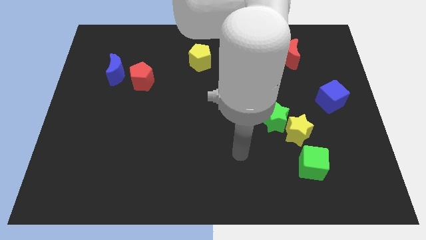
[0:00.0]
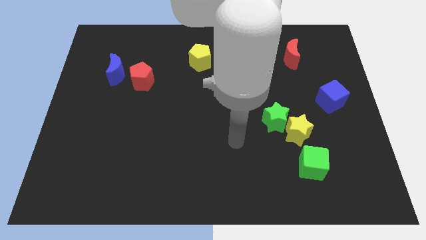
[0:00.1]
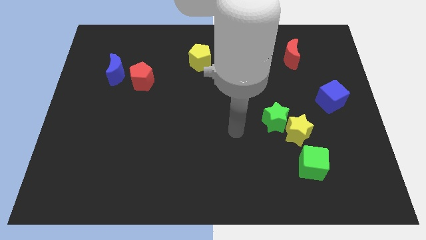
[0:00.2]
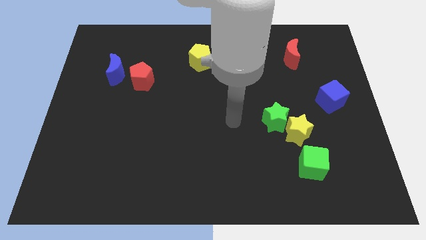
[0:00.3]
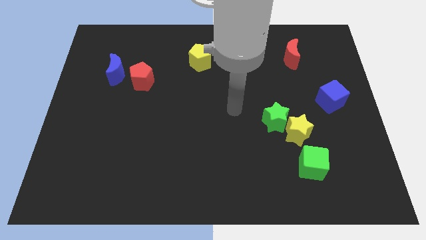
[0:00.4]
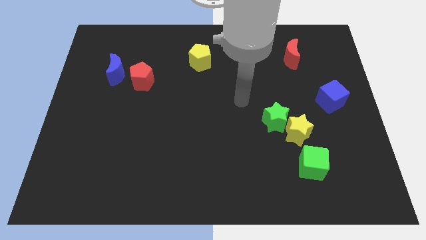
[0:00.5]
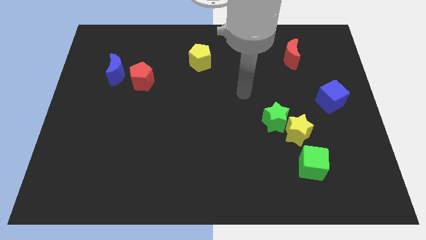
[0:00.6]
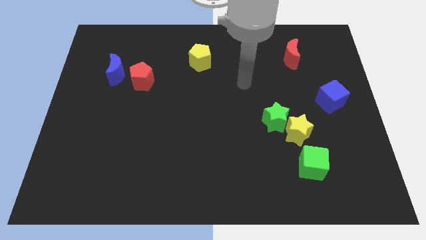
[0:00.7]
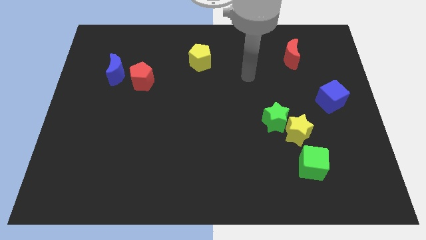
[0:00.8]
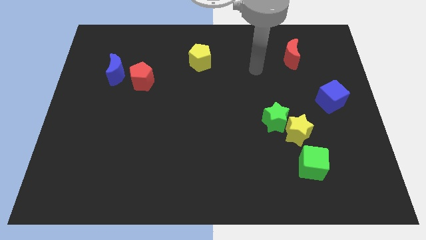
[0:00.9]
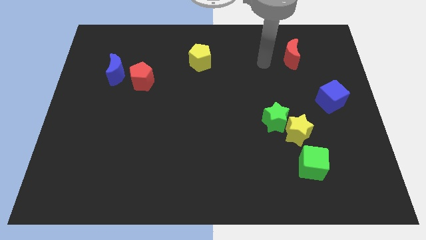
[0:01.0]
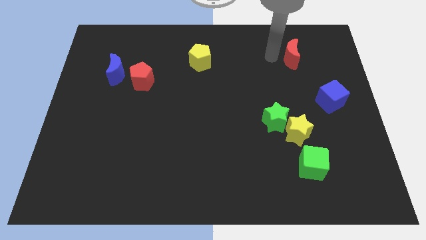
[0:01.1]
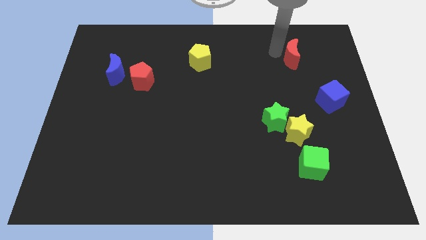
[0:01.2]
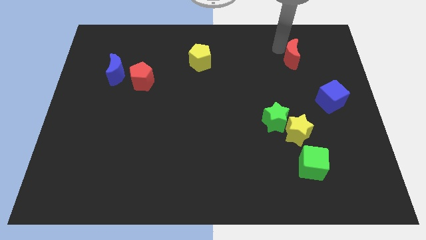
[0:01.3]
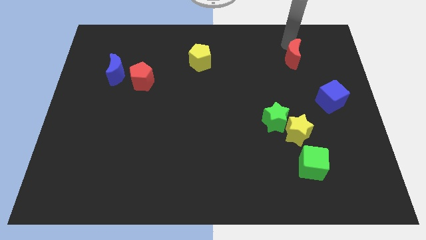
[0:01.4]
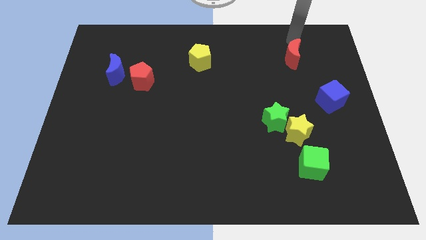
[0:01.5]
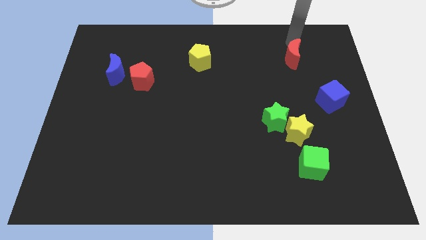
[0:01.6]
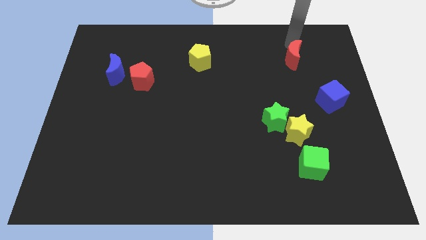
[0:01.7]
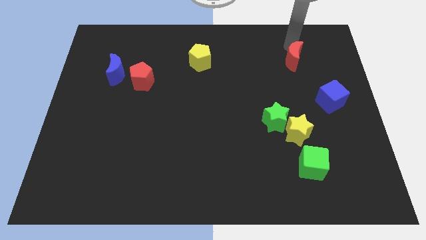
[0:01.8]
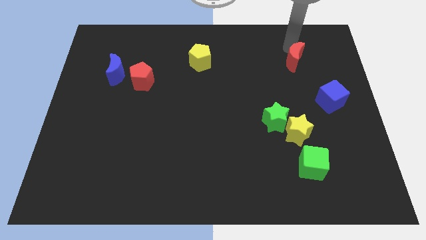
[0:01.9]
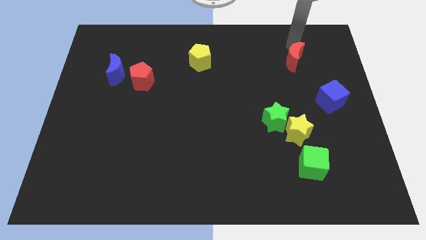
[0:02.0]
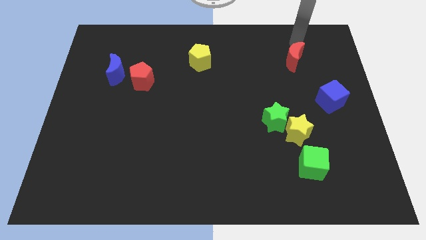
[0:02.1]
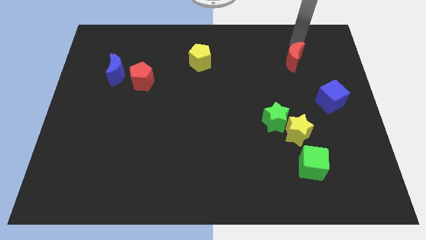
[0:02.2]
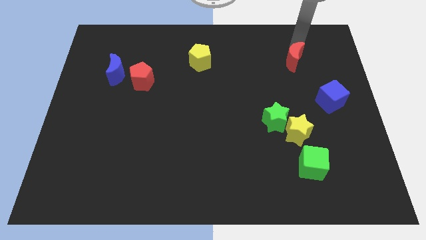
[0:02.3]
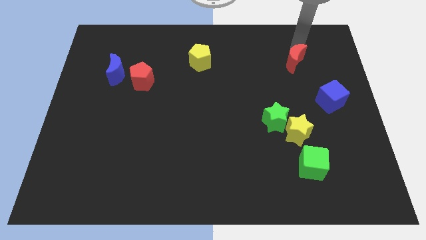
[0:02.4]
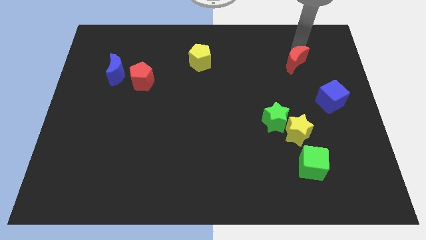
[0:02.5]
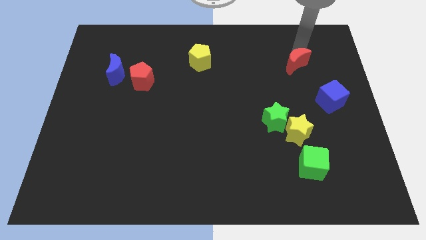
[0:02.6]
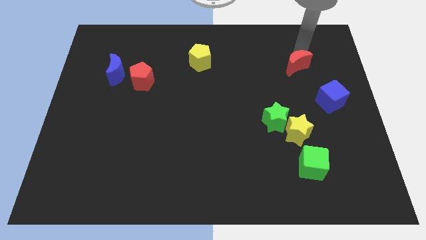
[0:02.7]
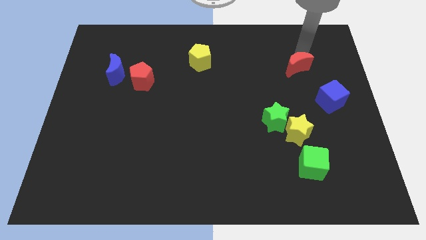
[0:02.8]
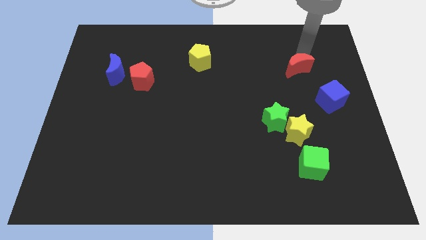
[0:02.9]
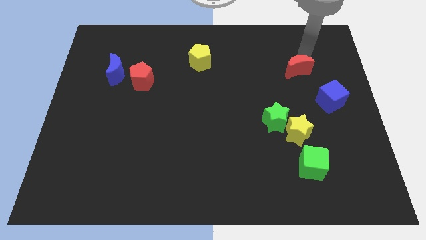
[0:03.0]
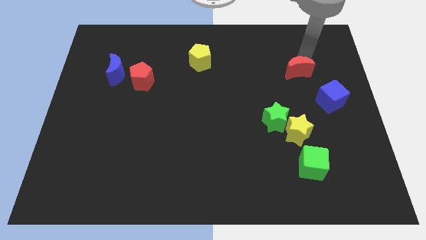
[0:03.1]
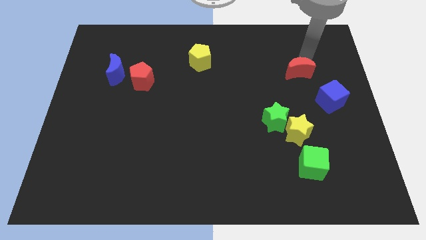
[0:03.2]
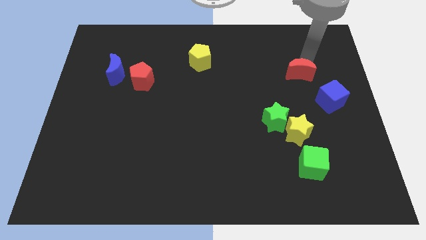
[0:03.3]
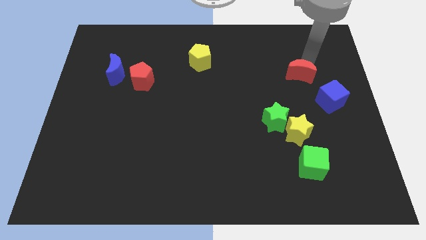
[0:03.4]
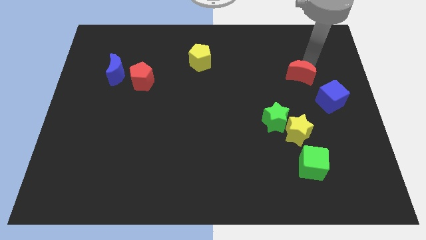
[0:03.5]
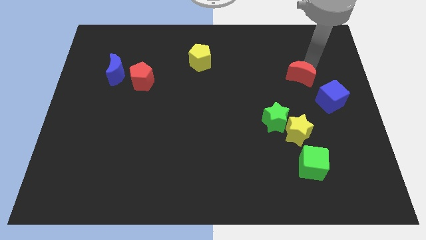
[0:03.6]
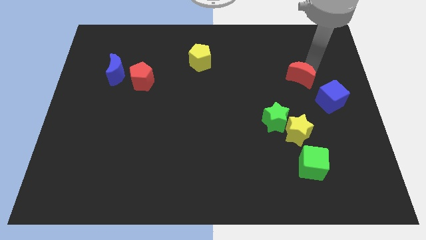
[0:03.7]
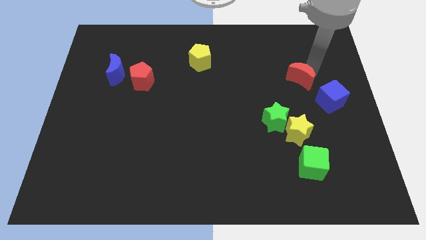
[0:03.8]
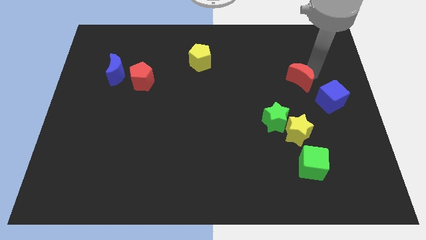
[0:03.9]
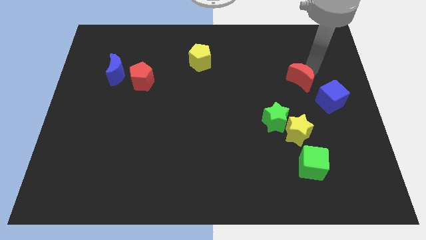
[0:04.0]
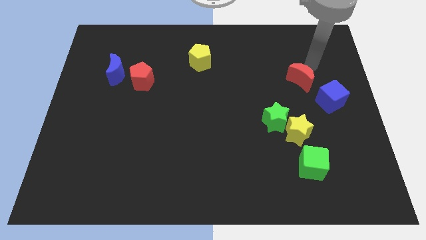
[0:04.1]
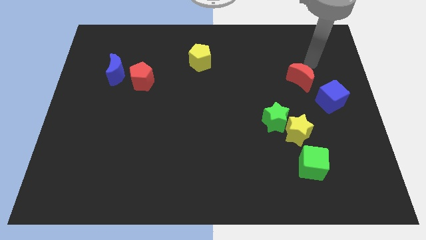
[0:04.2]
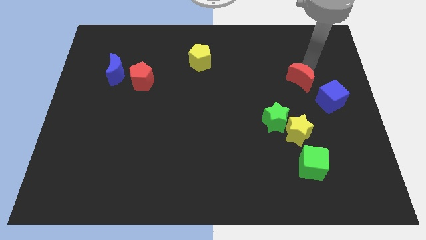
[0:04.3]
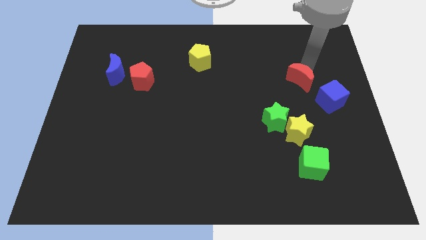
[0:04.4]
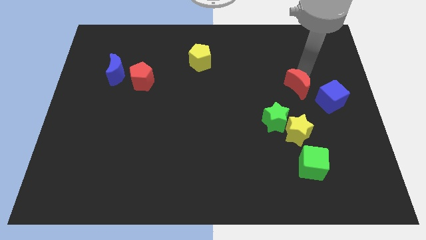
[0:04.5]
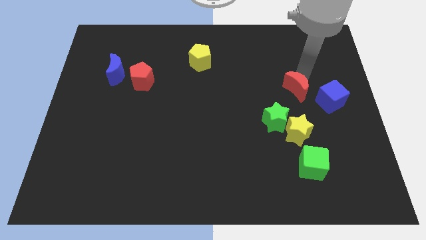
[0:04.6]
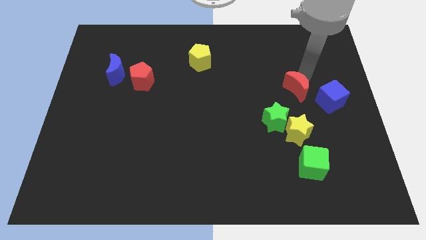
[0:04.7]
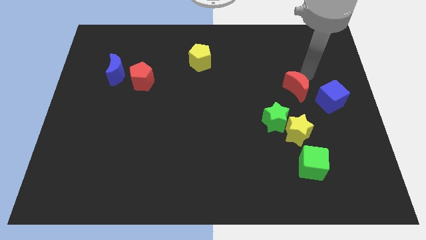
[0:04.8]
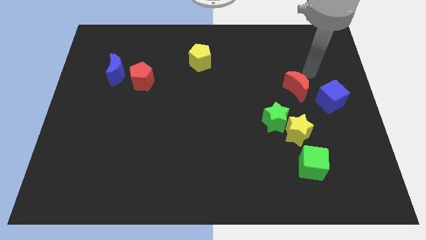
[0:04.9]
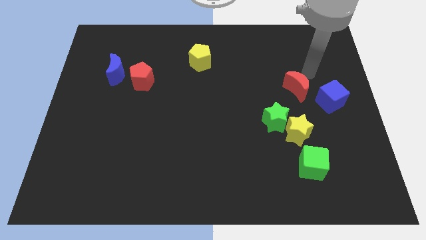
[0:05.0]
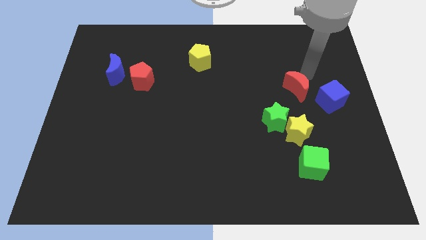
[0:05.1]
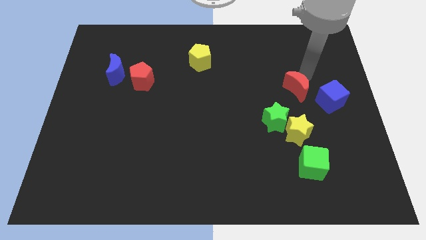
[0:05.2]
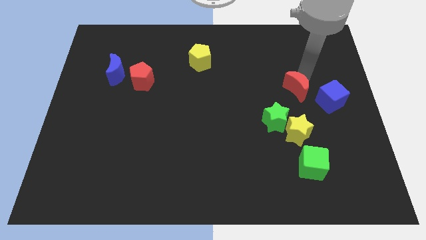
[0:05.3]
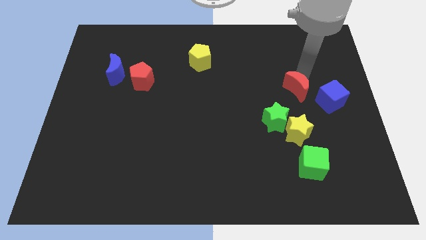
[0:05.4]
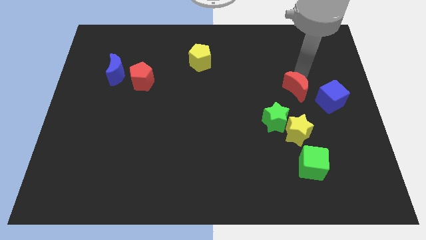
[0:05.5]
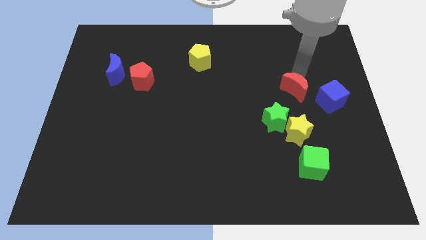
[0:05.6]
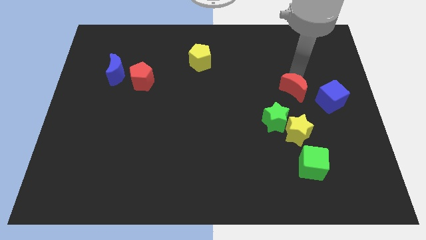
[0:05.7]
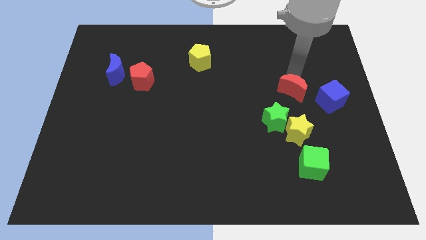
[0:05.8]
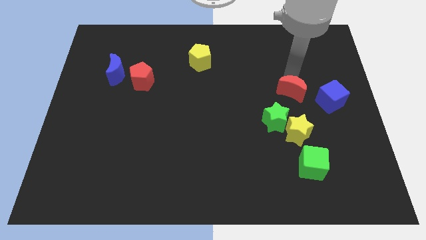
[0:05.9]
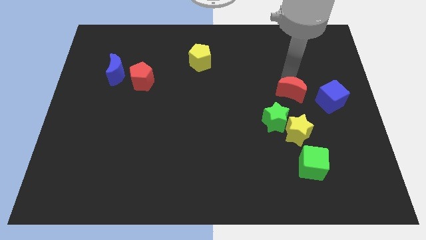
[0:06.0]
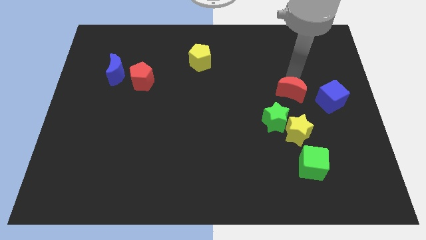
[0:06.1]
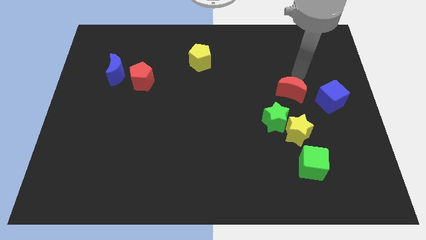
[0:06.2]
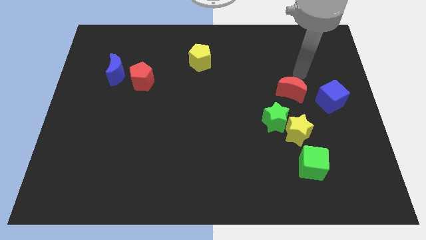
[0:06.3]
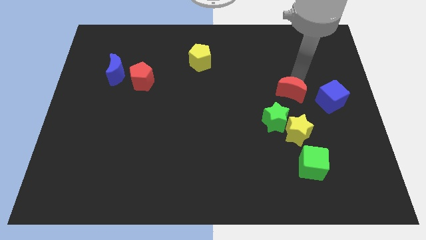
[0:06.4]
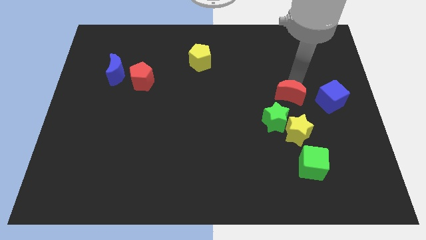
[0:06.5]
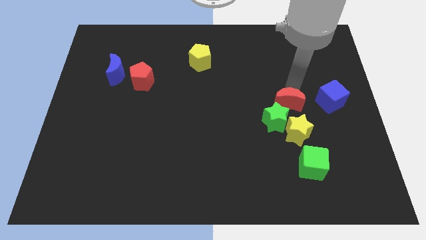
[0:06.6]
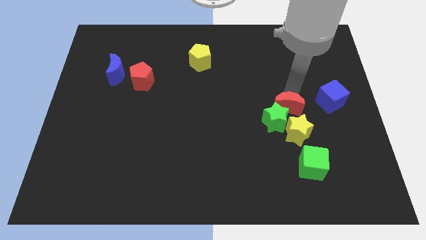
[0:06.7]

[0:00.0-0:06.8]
put the red moon to the green star

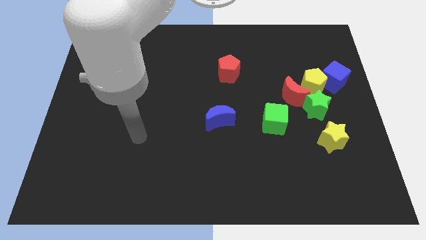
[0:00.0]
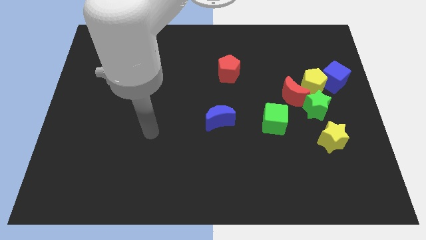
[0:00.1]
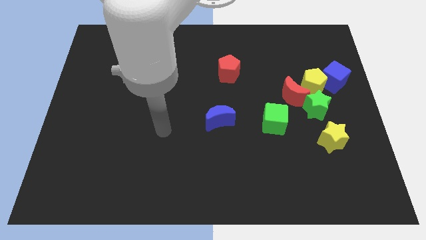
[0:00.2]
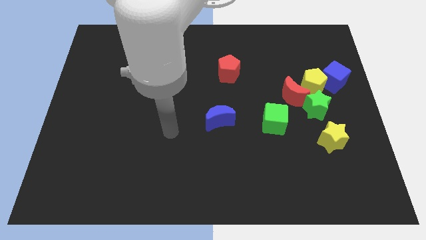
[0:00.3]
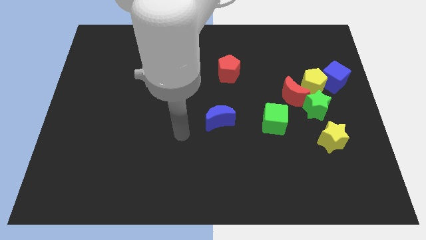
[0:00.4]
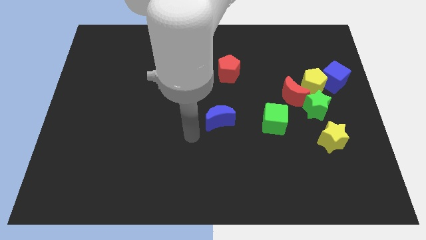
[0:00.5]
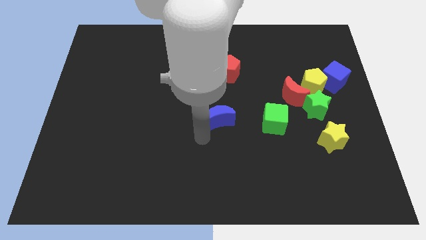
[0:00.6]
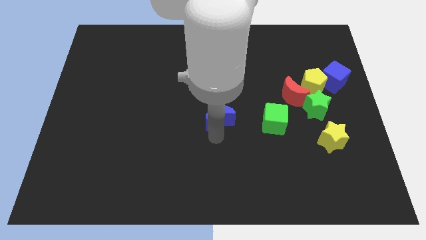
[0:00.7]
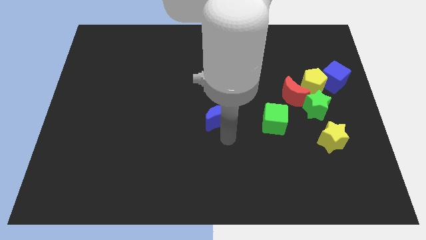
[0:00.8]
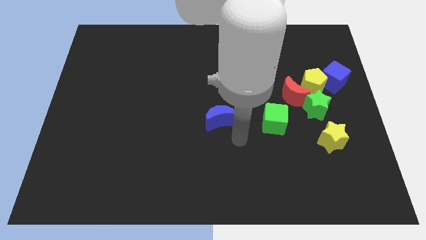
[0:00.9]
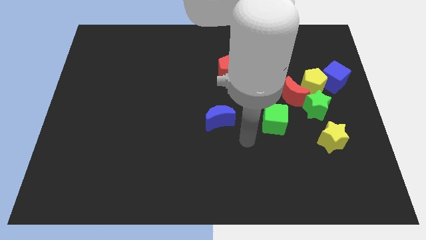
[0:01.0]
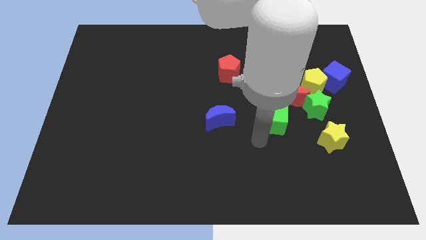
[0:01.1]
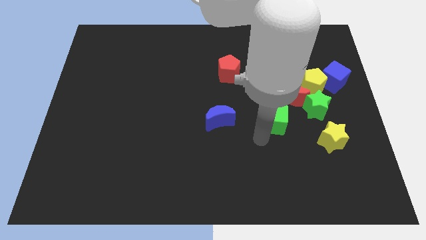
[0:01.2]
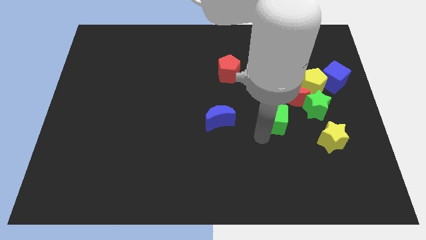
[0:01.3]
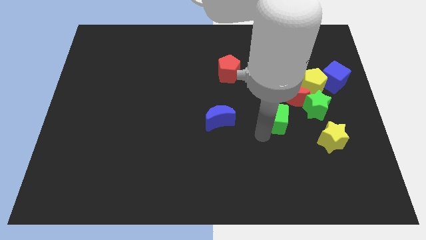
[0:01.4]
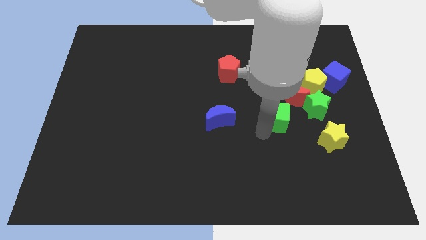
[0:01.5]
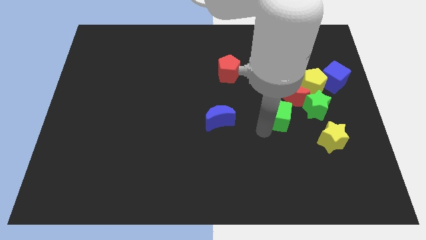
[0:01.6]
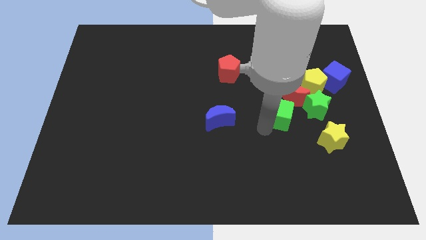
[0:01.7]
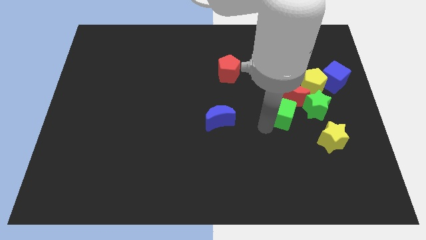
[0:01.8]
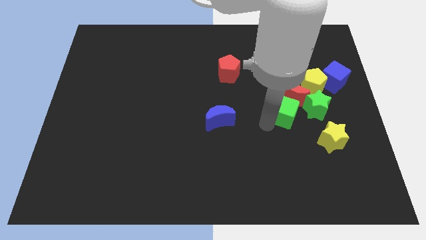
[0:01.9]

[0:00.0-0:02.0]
move the green cube towards the red moon
